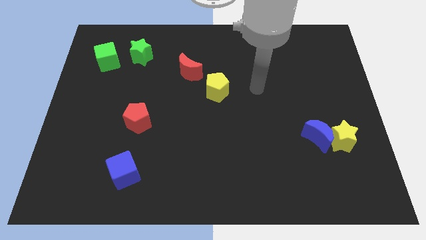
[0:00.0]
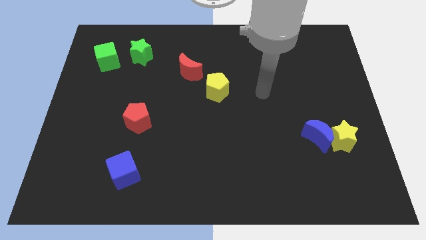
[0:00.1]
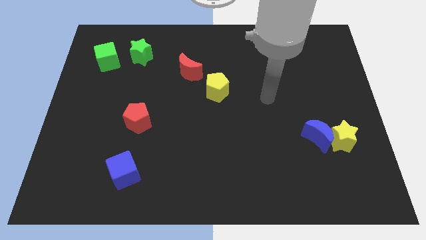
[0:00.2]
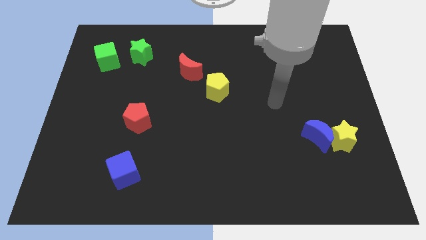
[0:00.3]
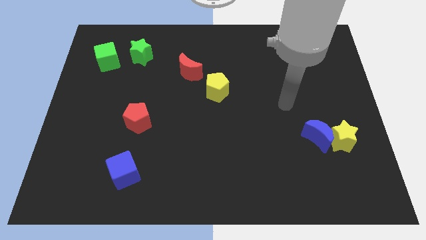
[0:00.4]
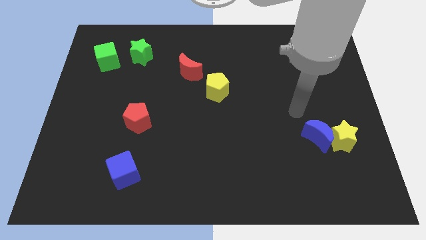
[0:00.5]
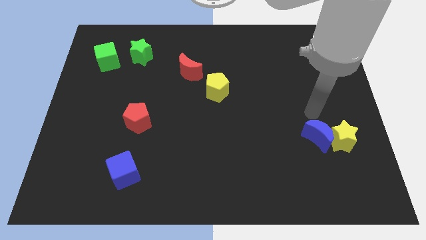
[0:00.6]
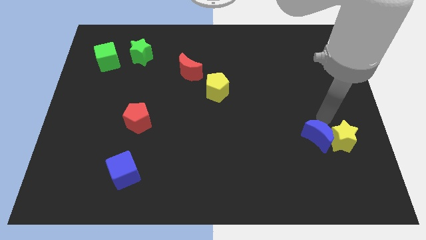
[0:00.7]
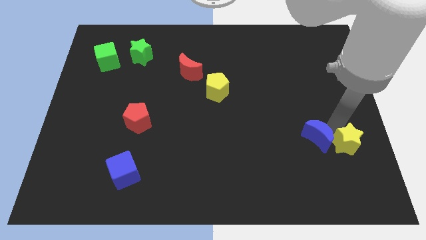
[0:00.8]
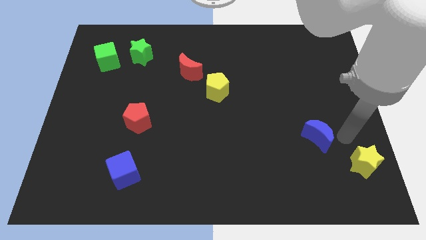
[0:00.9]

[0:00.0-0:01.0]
move the blue moon away from the yellow star

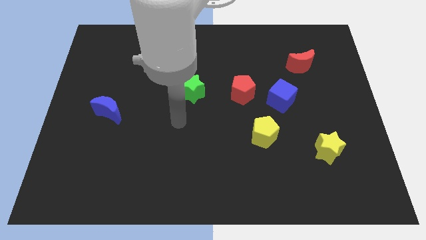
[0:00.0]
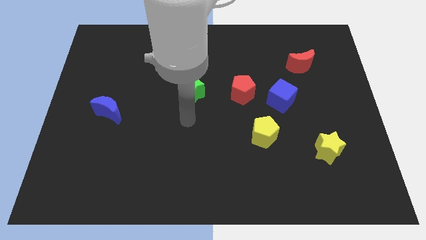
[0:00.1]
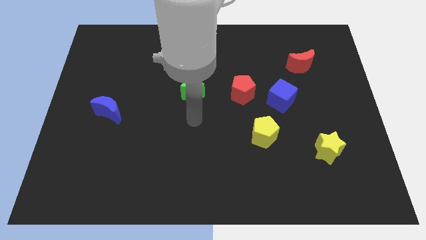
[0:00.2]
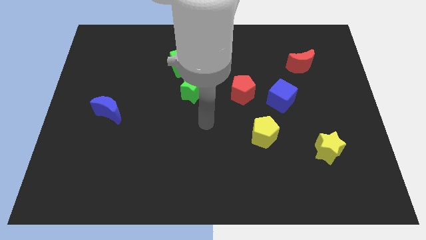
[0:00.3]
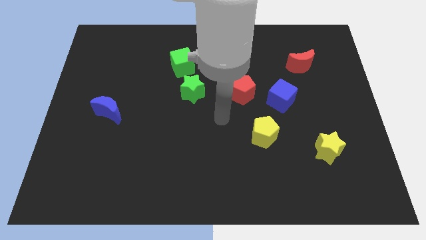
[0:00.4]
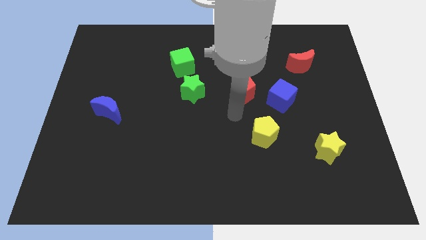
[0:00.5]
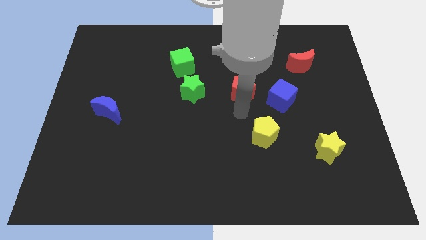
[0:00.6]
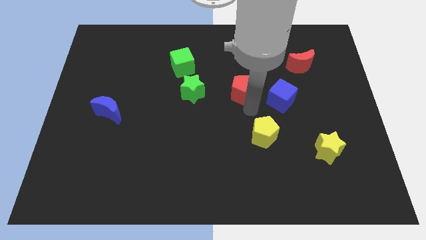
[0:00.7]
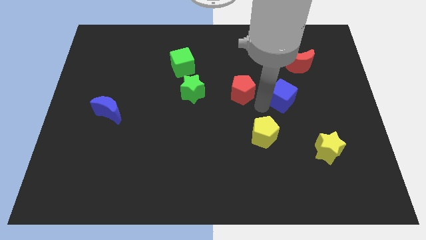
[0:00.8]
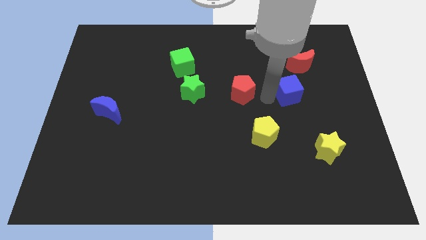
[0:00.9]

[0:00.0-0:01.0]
pull the red pentagon apart from the blue cube

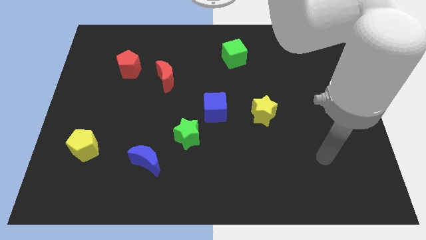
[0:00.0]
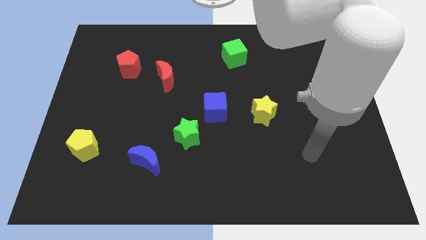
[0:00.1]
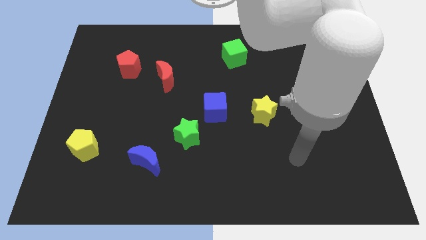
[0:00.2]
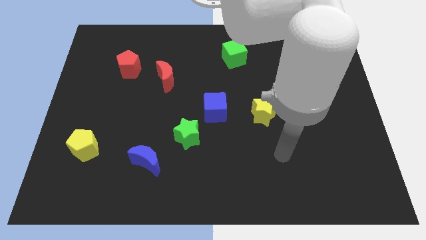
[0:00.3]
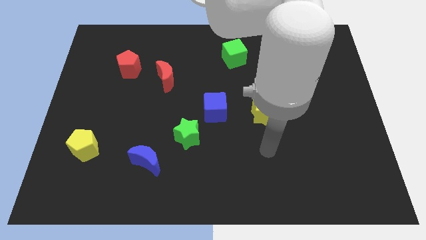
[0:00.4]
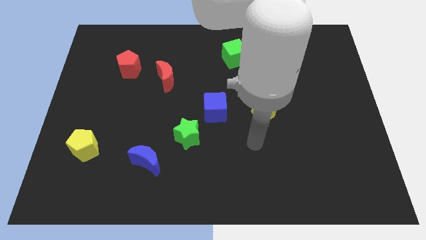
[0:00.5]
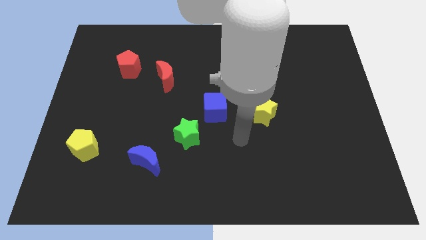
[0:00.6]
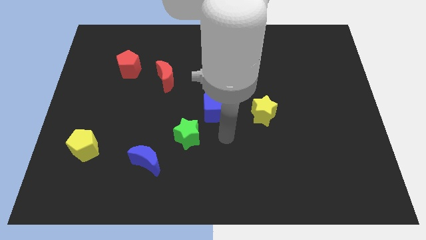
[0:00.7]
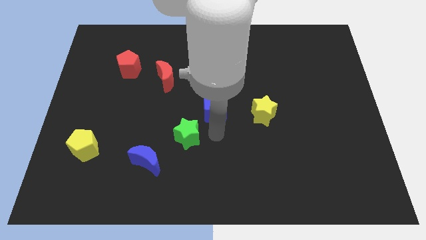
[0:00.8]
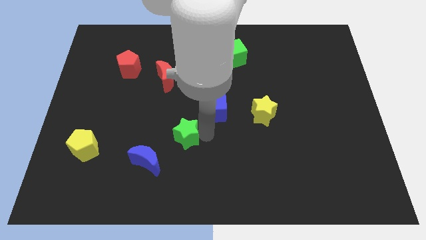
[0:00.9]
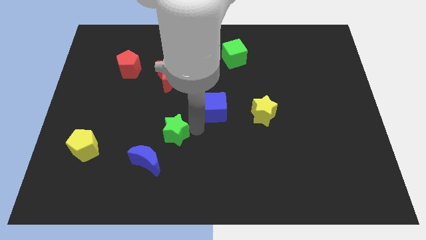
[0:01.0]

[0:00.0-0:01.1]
move the blue cube away from the green star

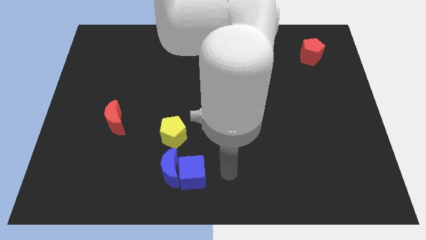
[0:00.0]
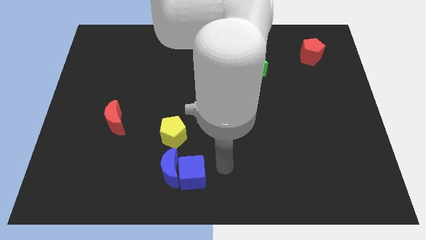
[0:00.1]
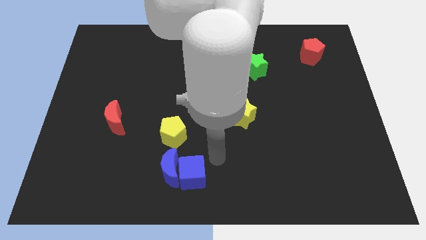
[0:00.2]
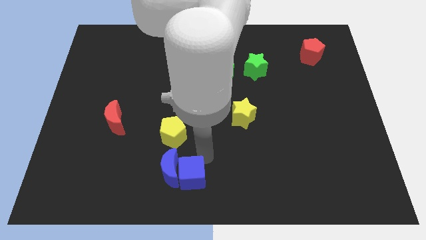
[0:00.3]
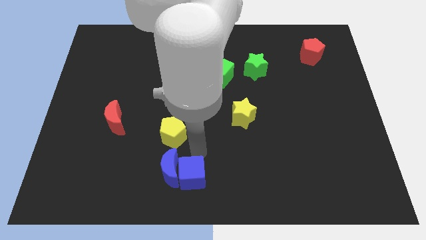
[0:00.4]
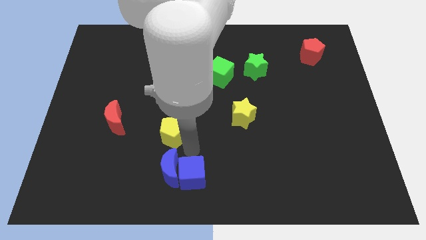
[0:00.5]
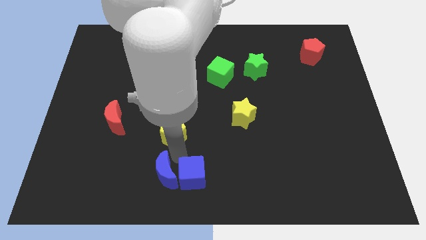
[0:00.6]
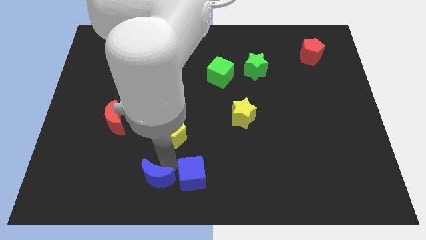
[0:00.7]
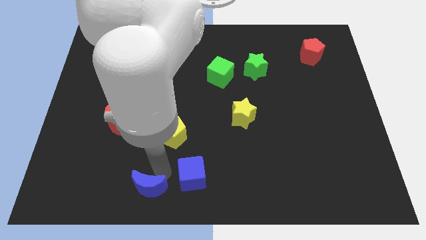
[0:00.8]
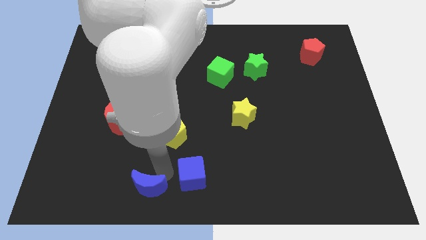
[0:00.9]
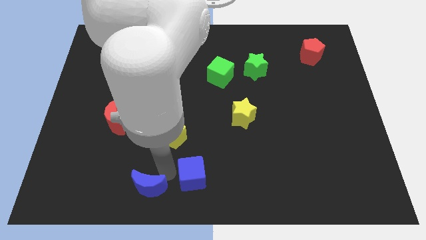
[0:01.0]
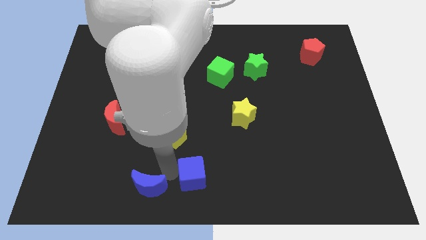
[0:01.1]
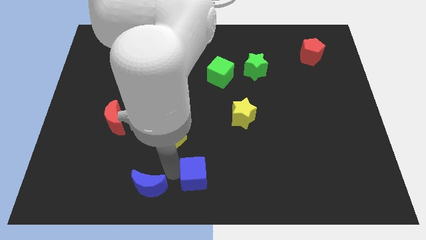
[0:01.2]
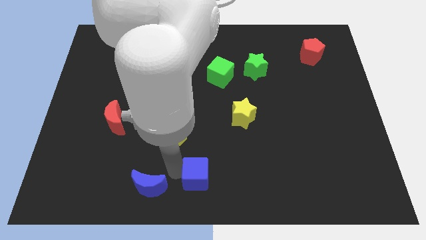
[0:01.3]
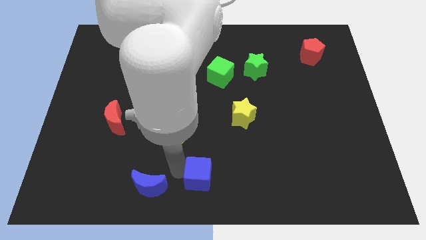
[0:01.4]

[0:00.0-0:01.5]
move the blue cube away from the blue moon

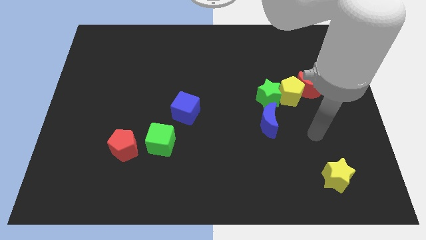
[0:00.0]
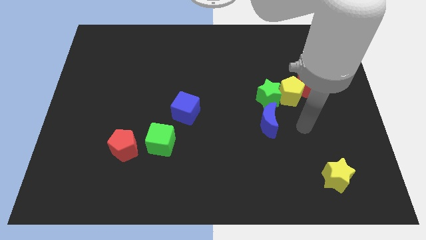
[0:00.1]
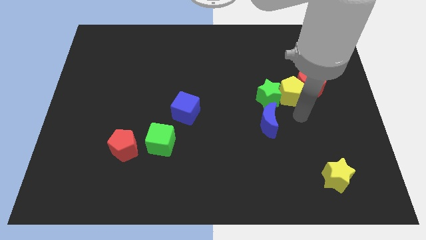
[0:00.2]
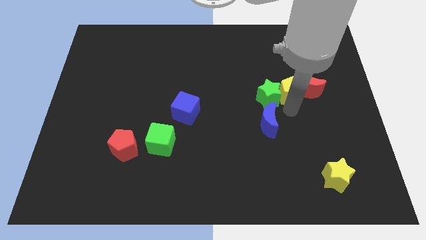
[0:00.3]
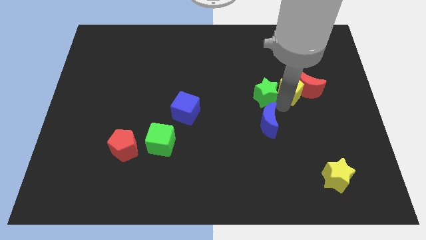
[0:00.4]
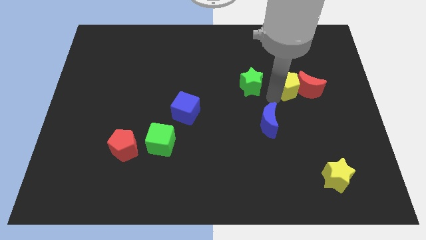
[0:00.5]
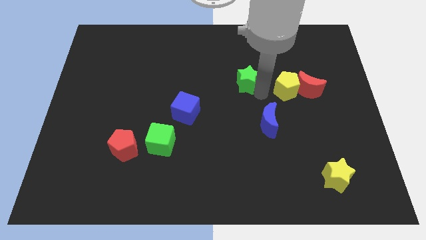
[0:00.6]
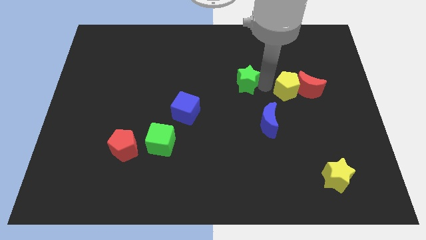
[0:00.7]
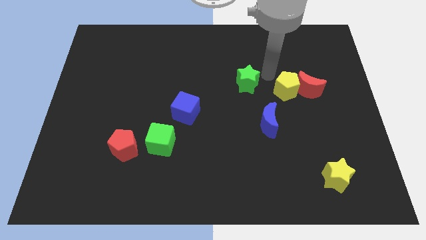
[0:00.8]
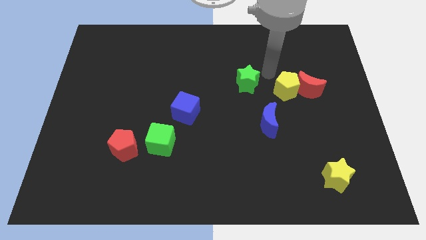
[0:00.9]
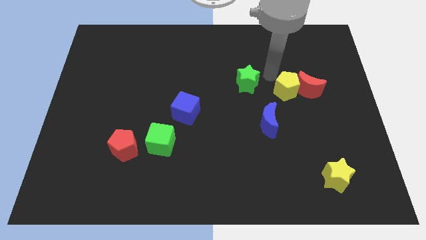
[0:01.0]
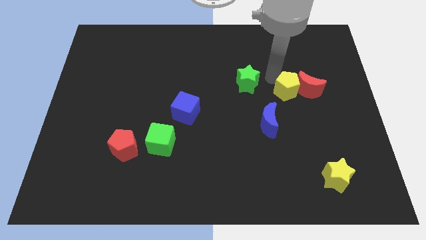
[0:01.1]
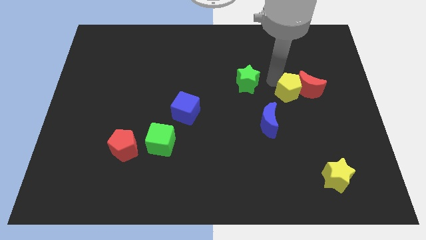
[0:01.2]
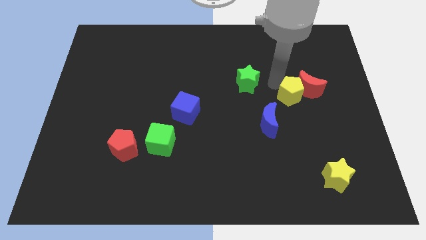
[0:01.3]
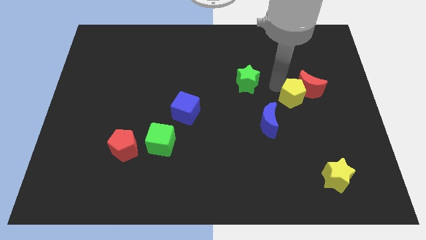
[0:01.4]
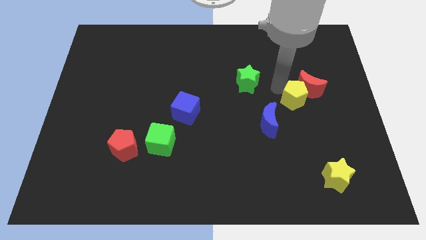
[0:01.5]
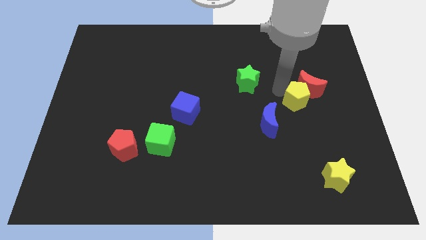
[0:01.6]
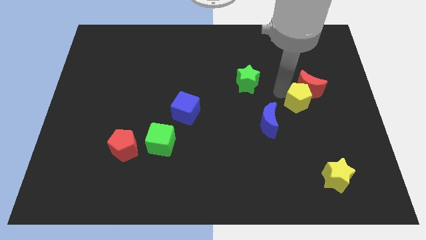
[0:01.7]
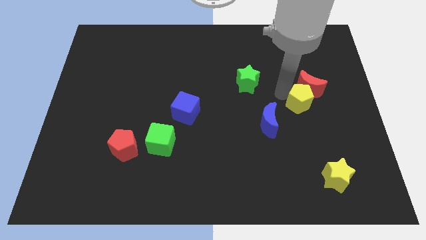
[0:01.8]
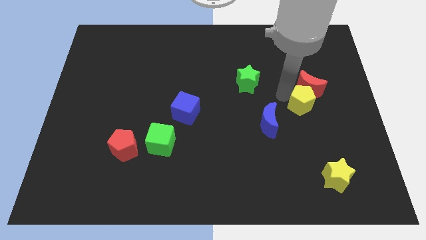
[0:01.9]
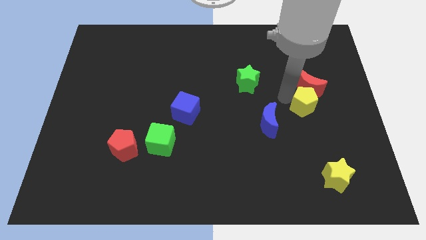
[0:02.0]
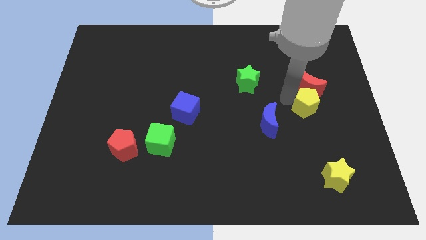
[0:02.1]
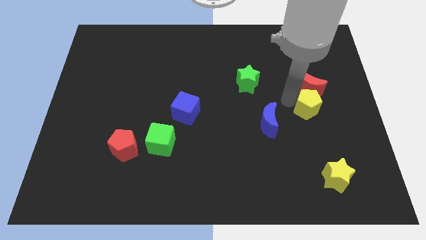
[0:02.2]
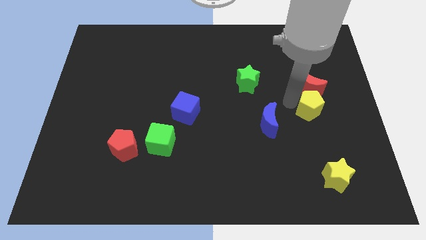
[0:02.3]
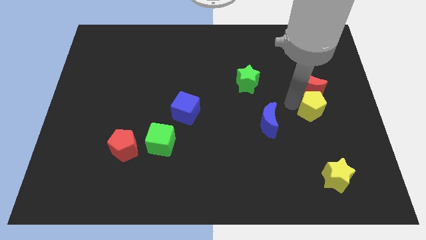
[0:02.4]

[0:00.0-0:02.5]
separate the yellow pentagon from the red moon and green star

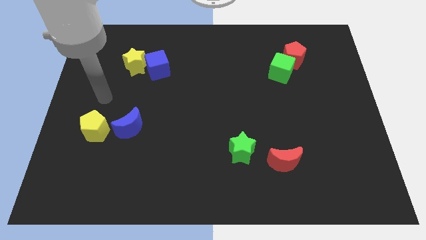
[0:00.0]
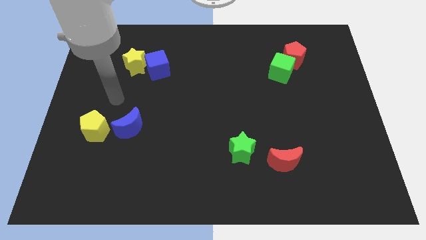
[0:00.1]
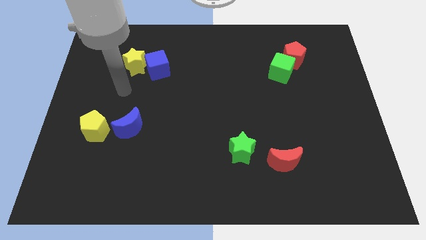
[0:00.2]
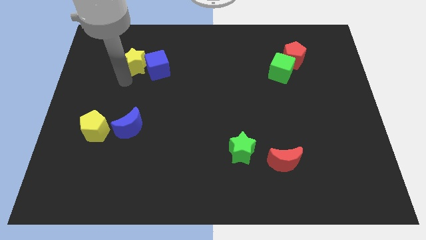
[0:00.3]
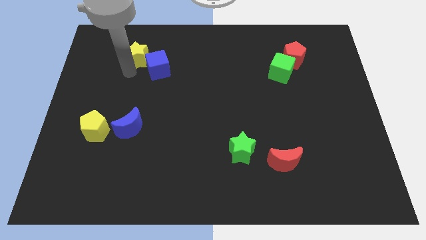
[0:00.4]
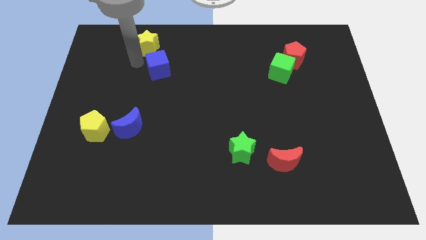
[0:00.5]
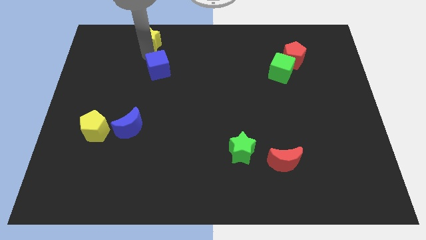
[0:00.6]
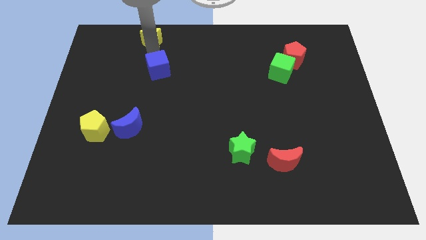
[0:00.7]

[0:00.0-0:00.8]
move the blue cube away from the yellow star

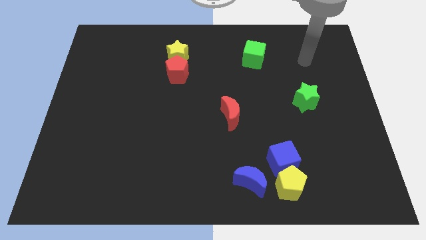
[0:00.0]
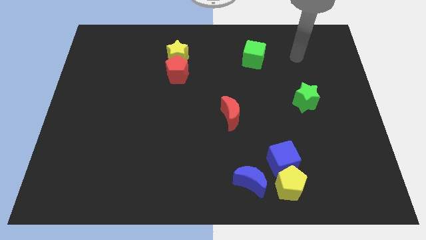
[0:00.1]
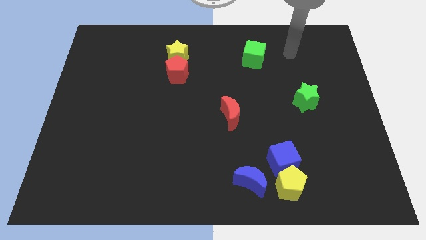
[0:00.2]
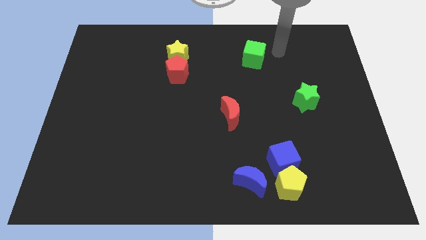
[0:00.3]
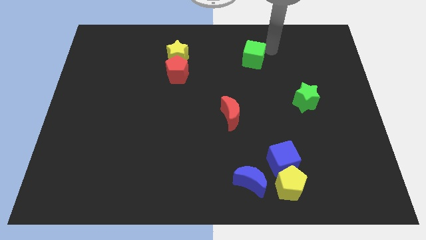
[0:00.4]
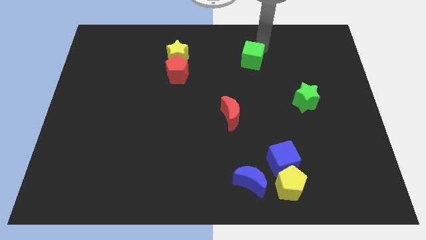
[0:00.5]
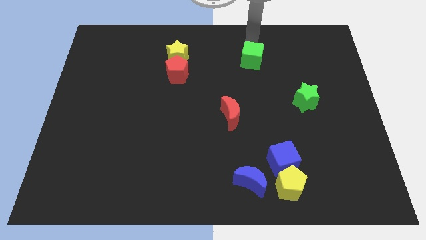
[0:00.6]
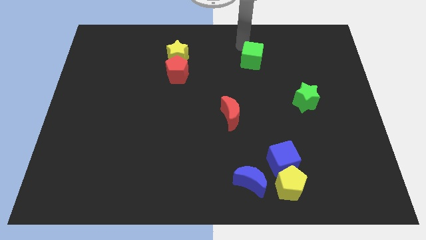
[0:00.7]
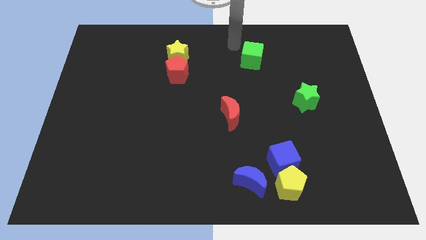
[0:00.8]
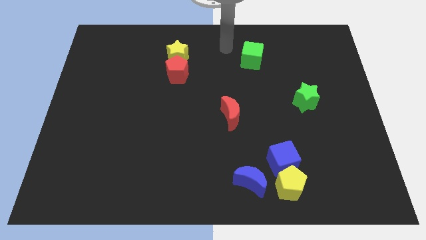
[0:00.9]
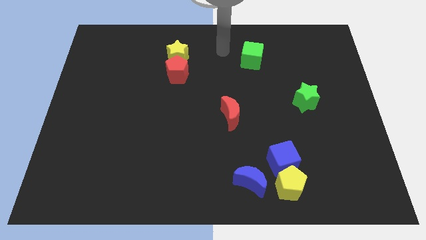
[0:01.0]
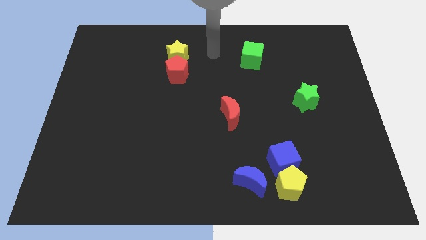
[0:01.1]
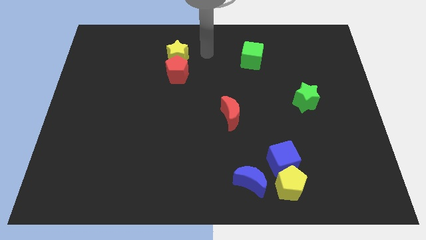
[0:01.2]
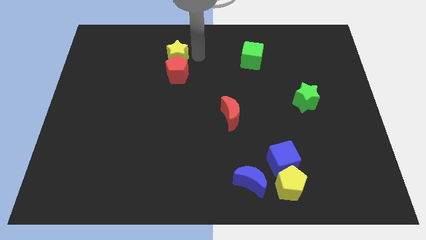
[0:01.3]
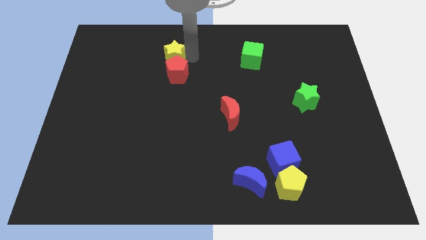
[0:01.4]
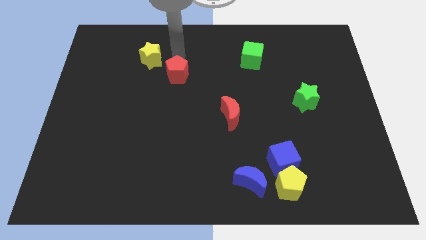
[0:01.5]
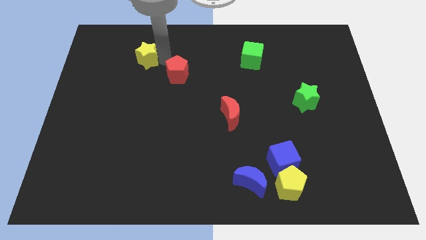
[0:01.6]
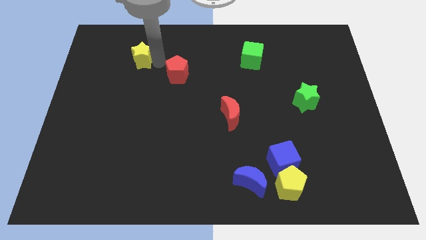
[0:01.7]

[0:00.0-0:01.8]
move the red pentagon away from the yellow star
